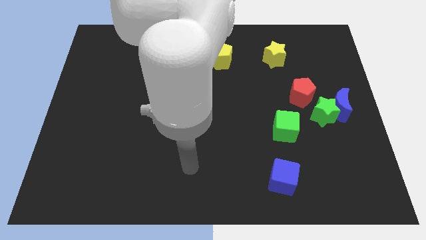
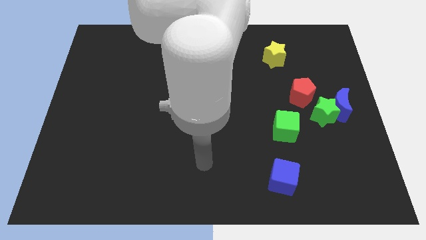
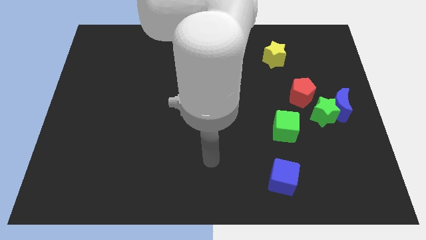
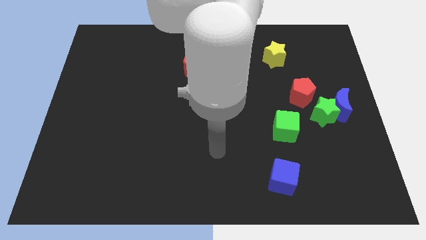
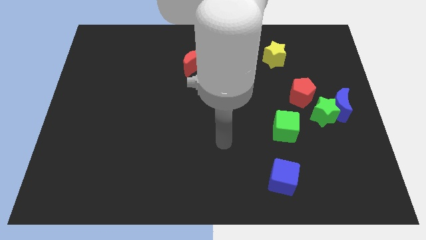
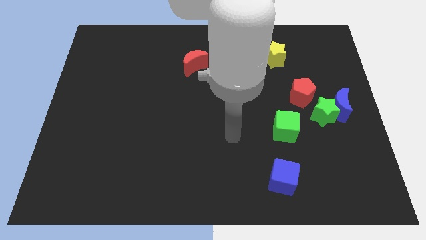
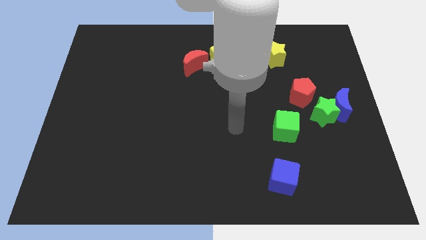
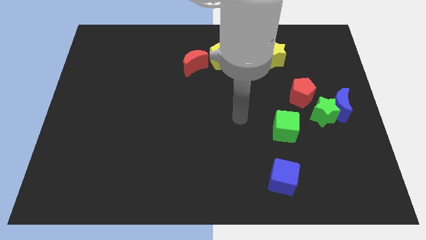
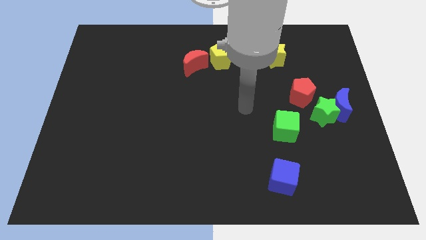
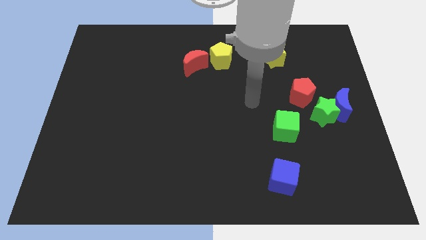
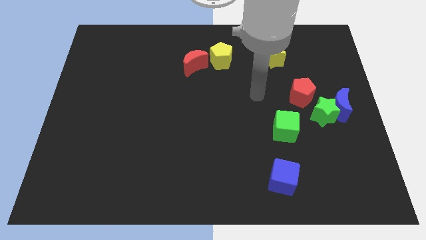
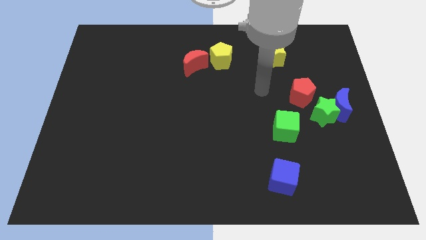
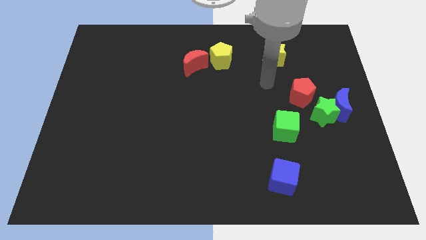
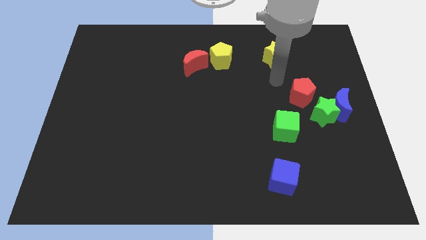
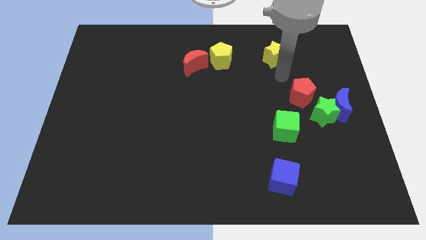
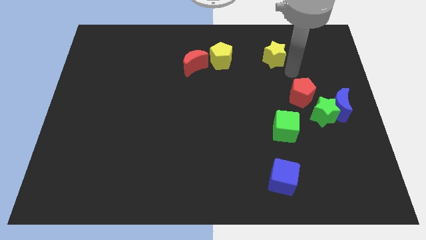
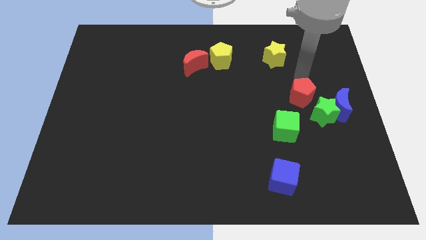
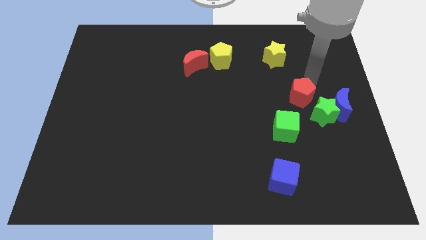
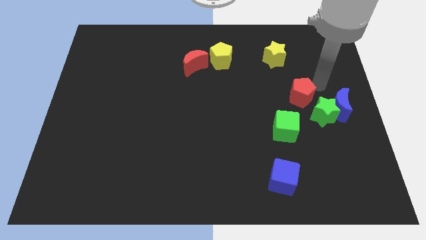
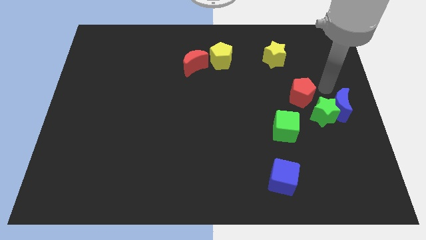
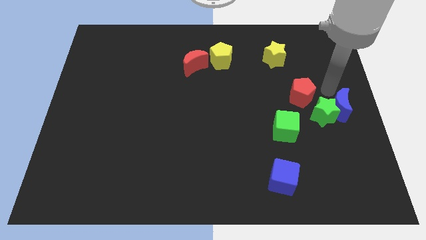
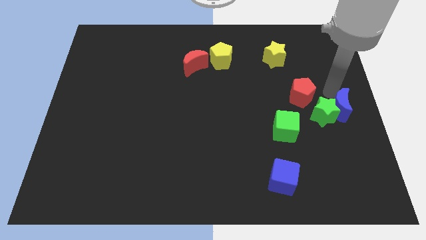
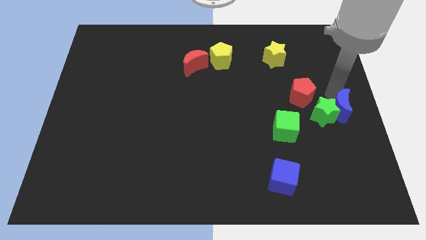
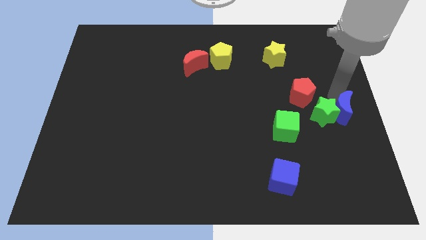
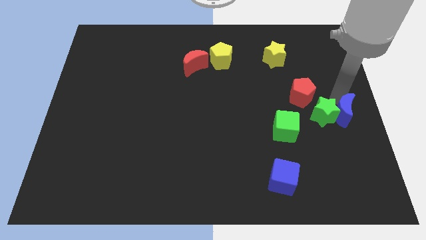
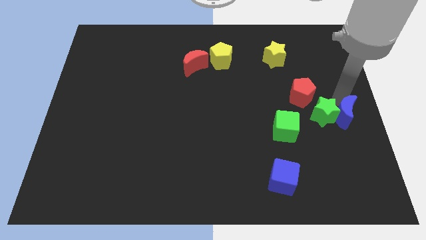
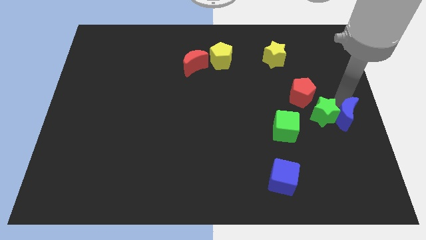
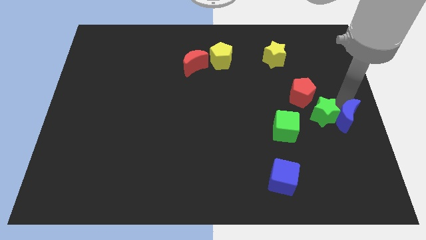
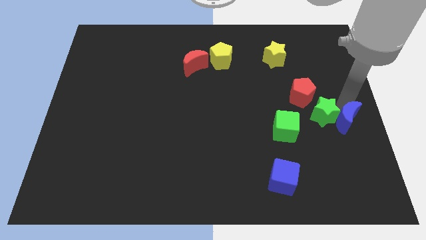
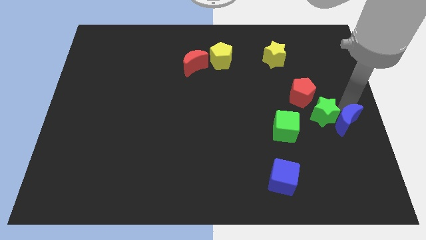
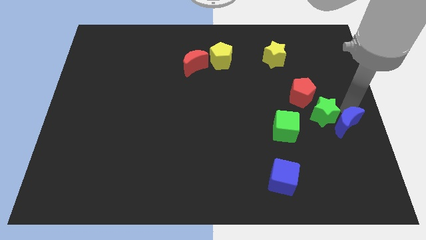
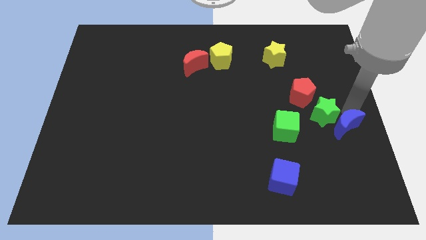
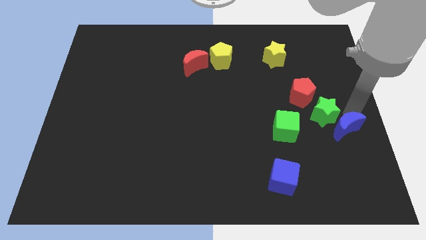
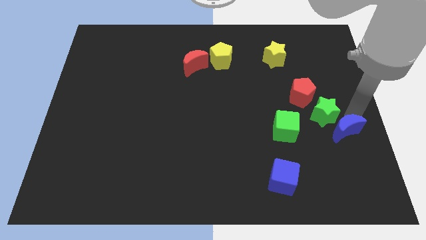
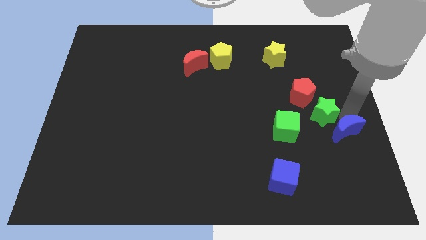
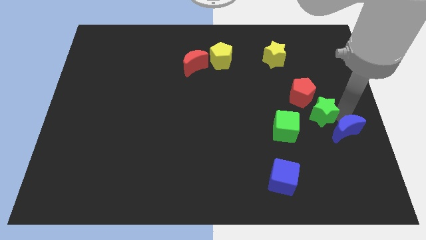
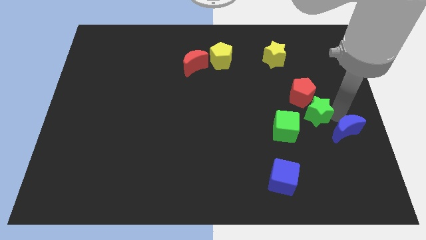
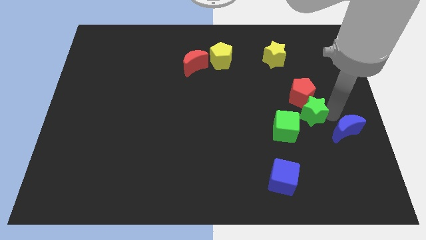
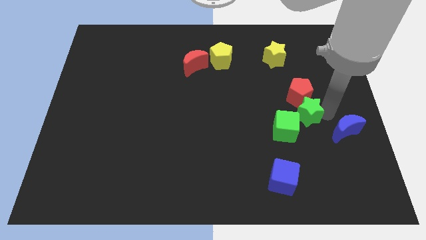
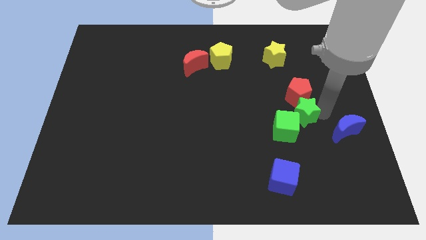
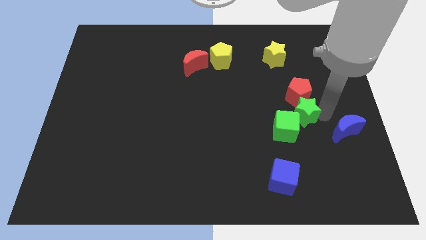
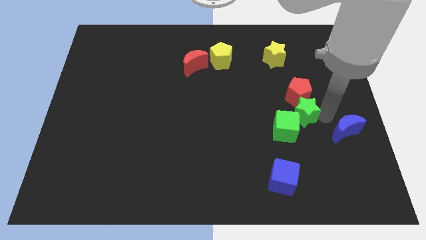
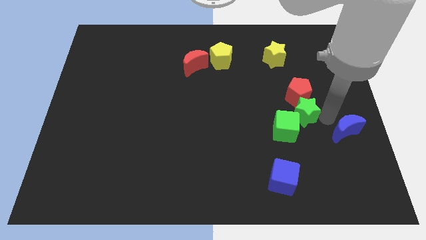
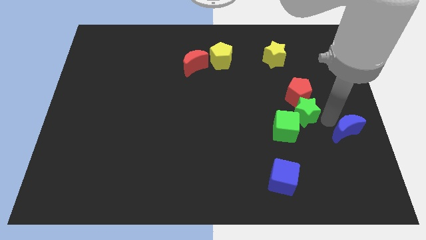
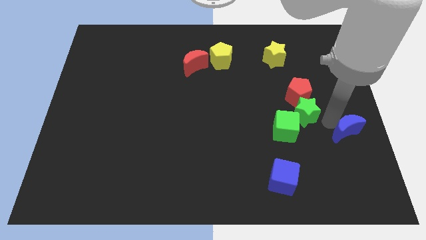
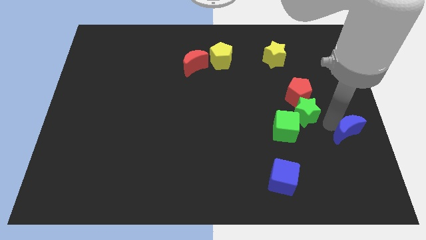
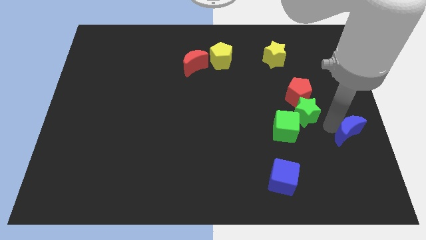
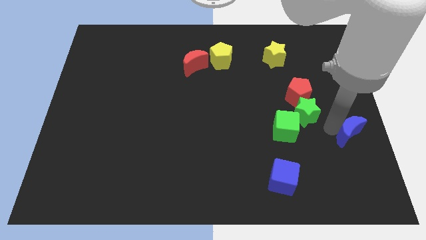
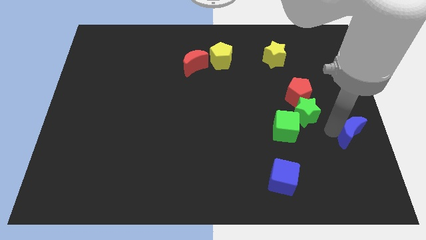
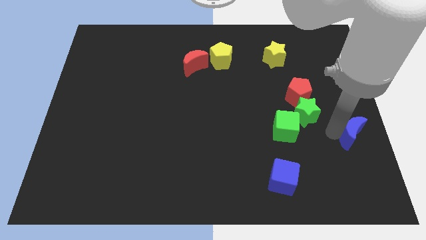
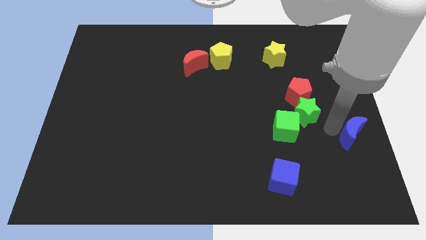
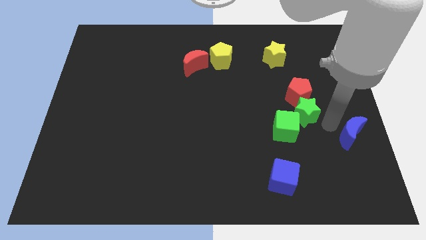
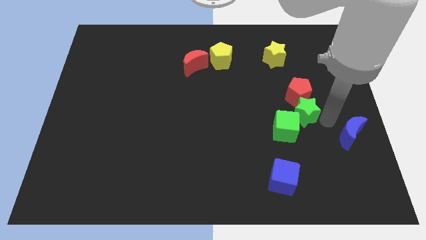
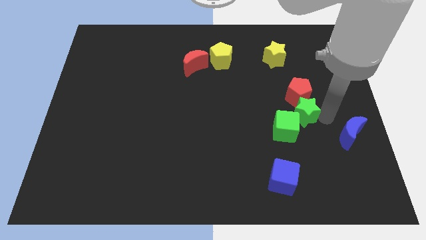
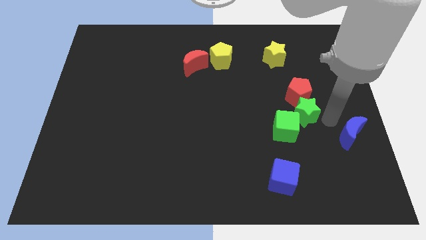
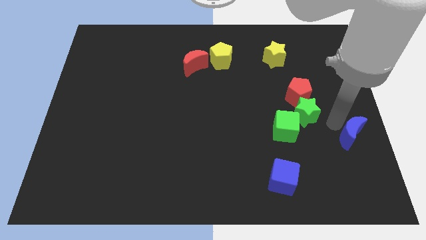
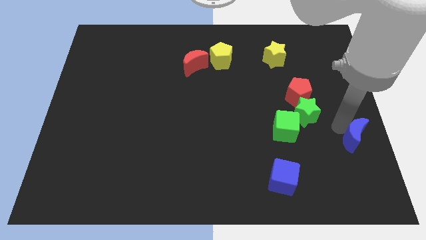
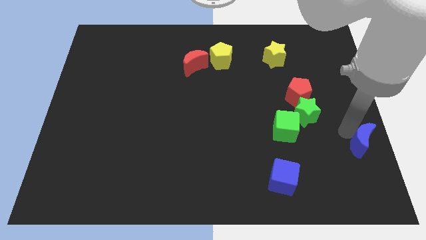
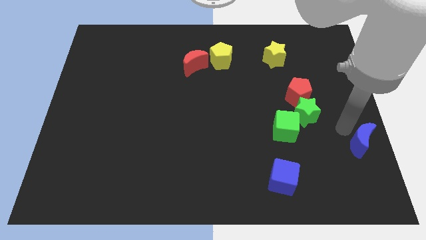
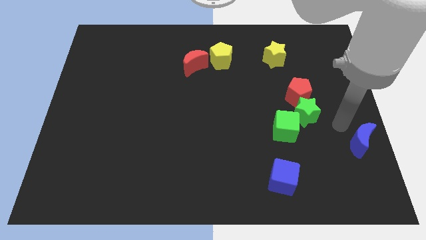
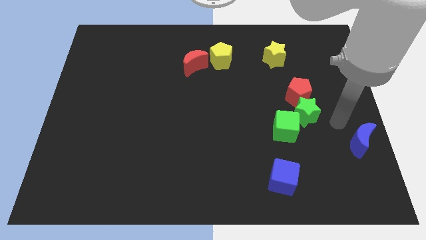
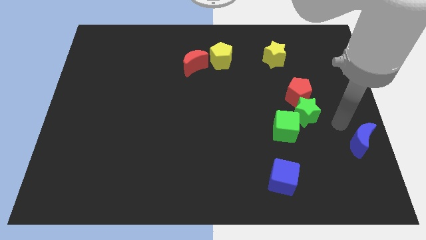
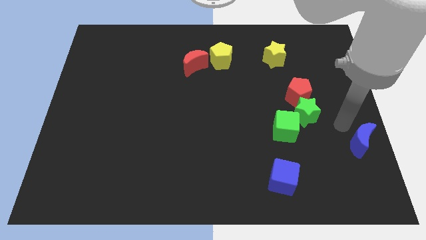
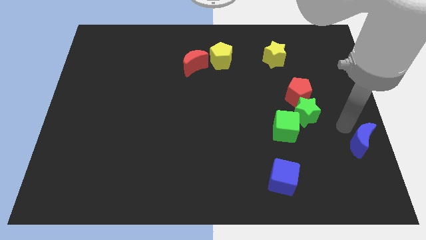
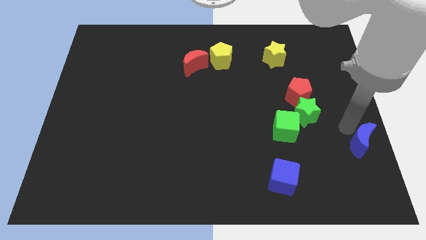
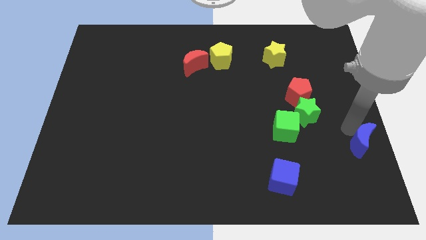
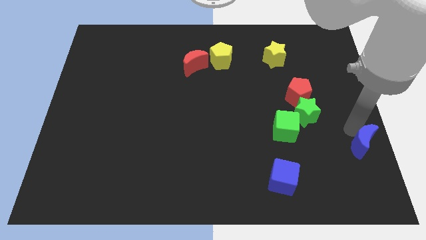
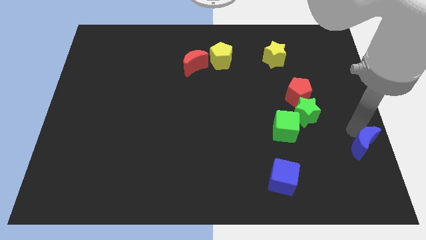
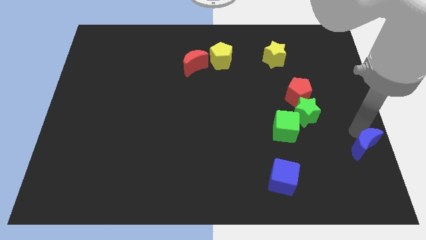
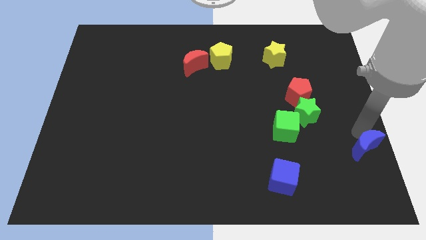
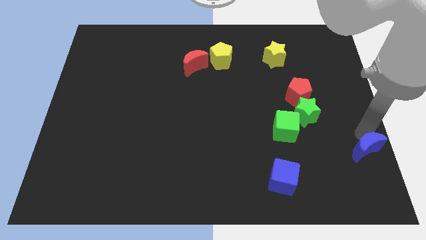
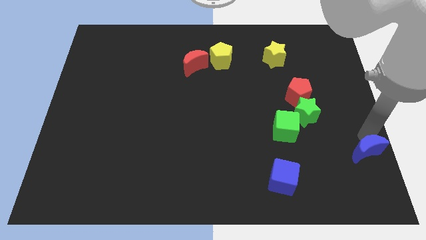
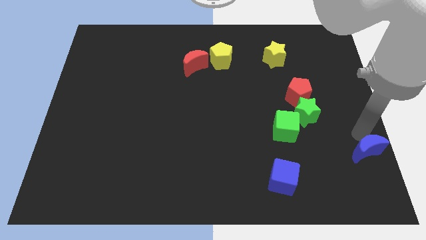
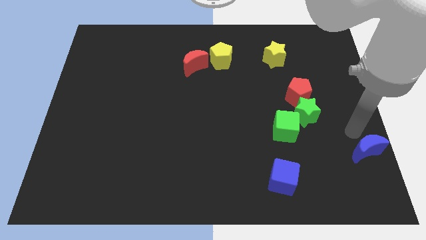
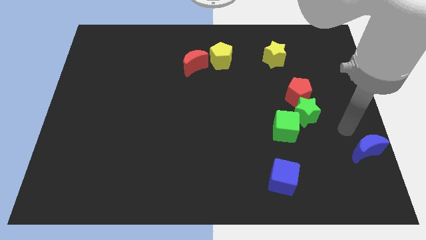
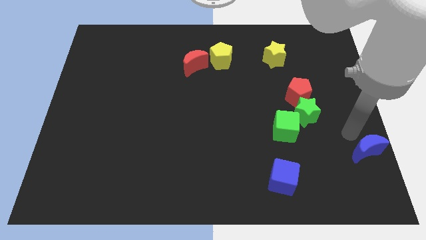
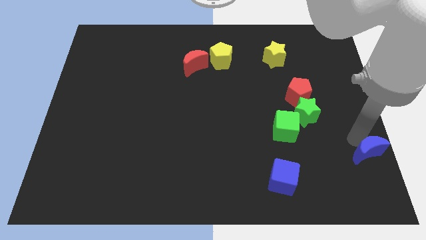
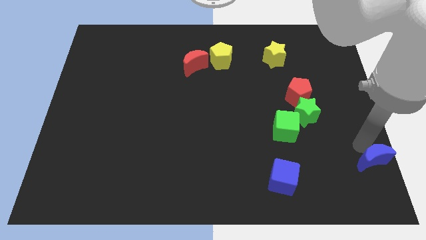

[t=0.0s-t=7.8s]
slide the blue moon to the lower right corner
